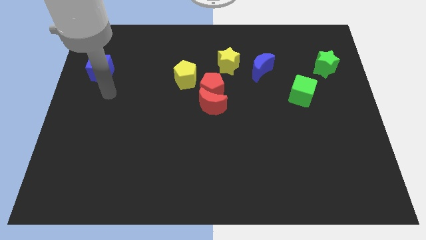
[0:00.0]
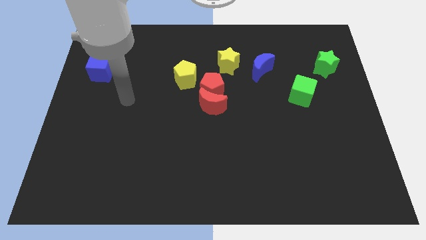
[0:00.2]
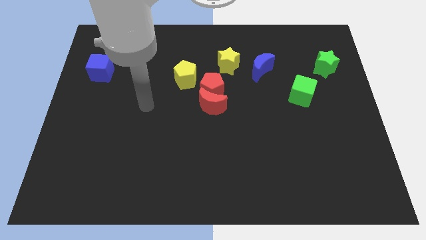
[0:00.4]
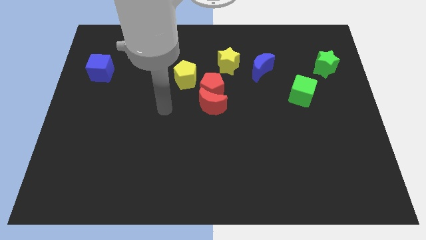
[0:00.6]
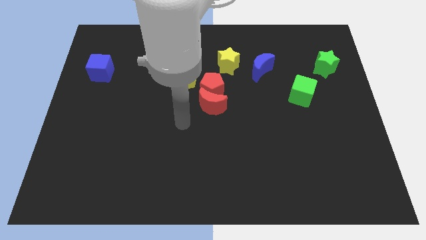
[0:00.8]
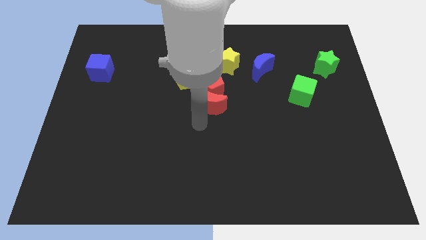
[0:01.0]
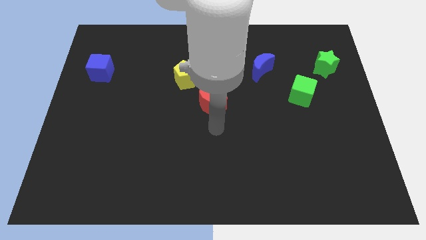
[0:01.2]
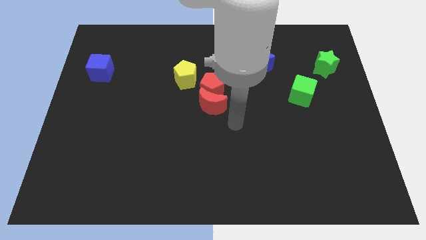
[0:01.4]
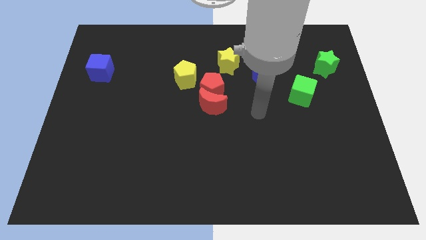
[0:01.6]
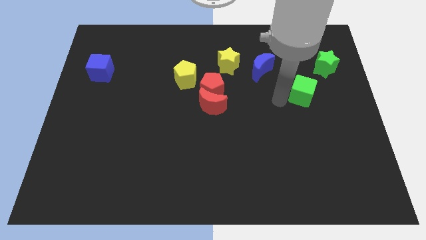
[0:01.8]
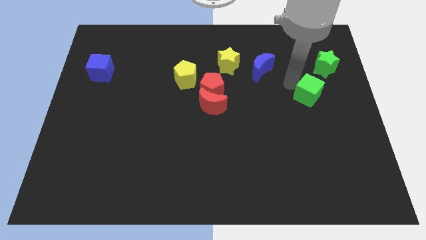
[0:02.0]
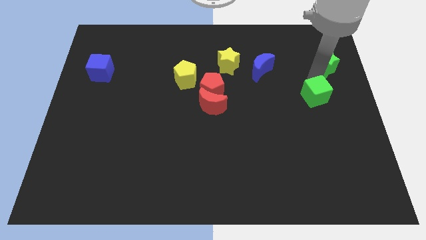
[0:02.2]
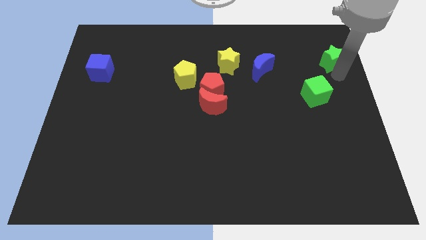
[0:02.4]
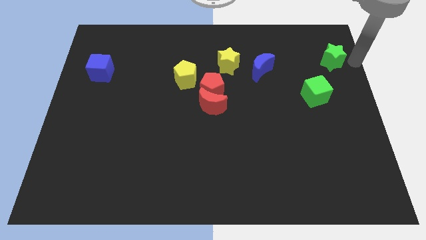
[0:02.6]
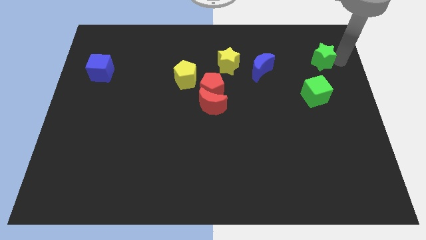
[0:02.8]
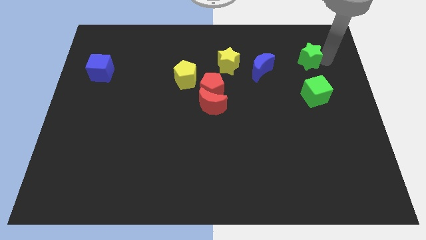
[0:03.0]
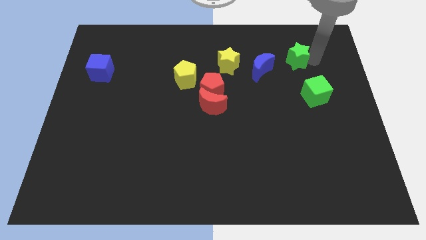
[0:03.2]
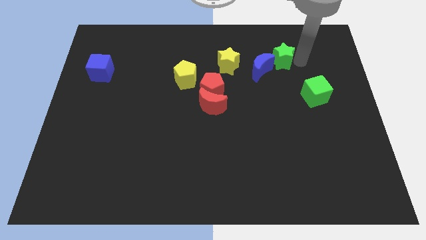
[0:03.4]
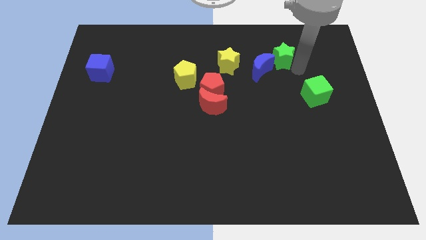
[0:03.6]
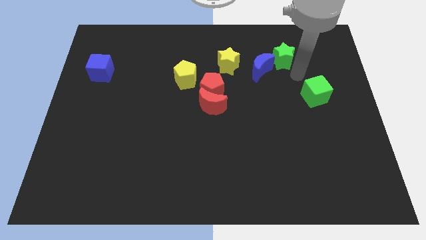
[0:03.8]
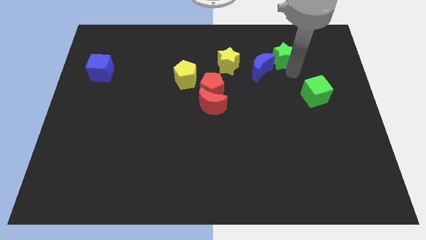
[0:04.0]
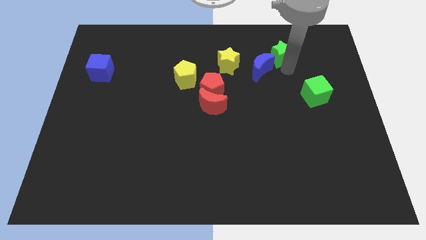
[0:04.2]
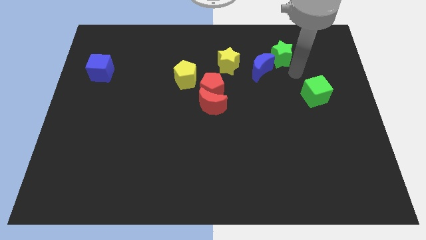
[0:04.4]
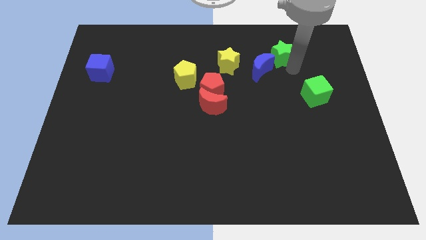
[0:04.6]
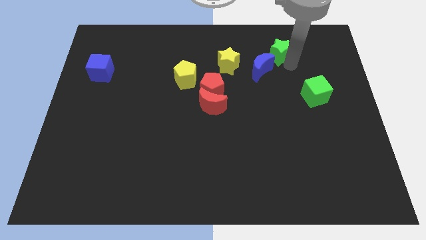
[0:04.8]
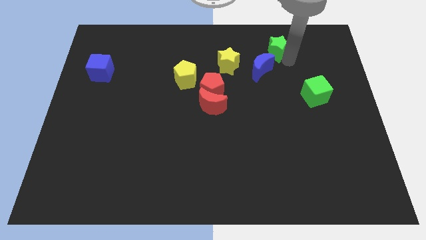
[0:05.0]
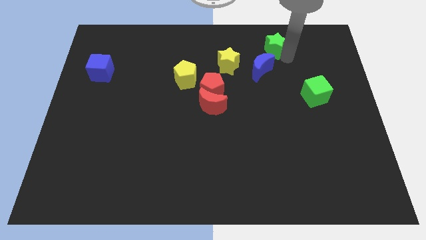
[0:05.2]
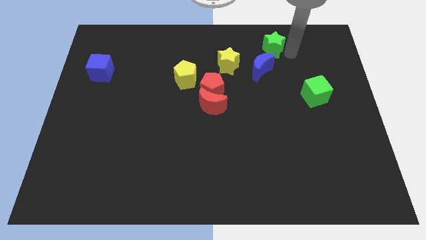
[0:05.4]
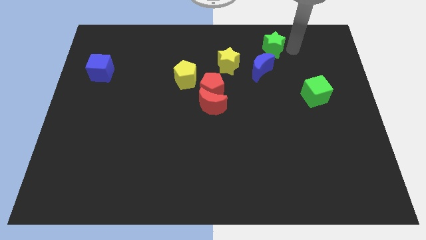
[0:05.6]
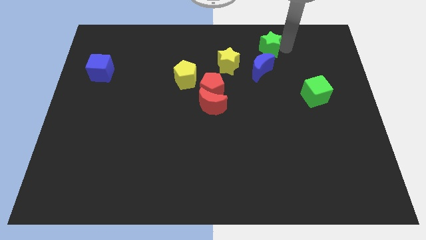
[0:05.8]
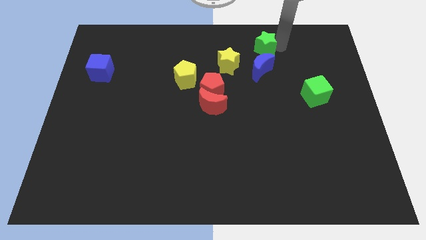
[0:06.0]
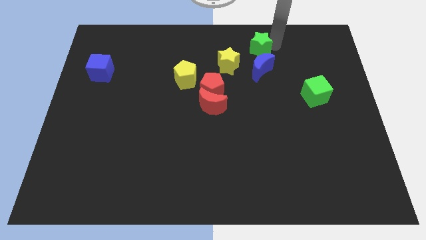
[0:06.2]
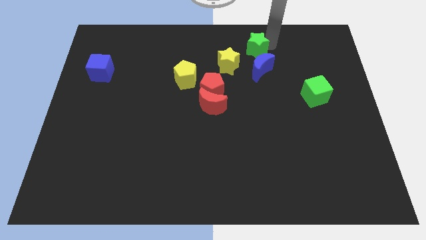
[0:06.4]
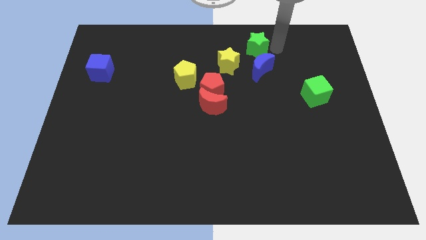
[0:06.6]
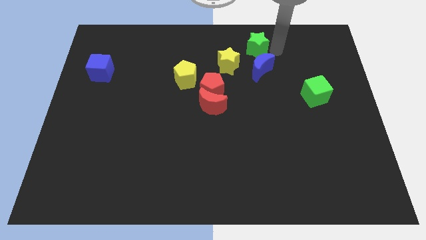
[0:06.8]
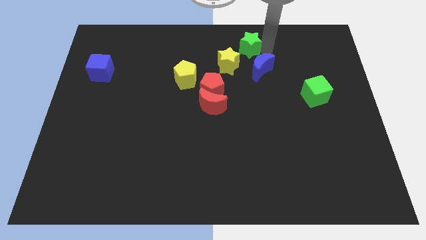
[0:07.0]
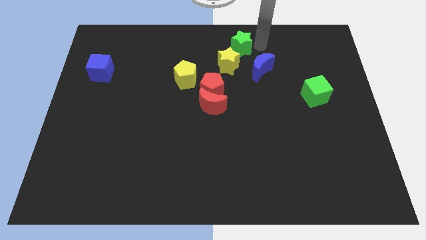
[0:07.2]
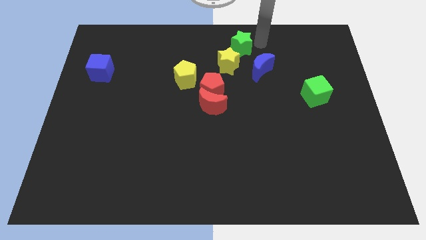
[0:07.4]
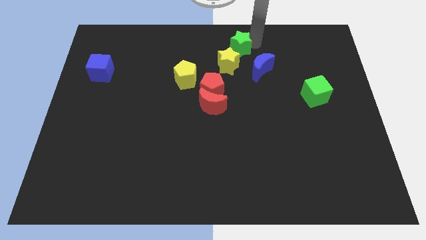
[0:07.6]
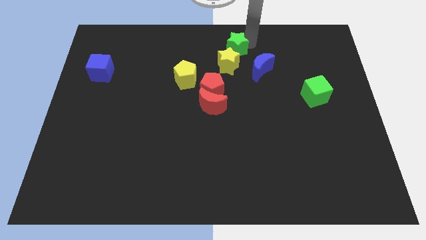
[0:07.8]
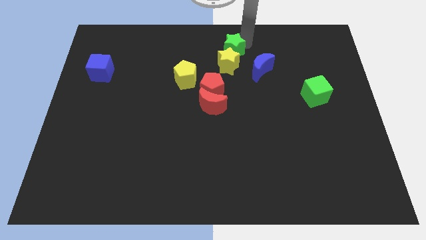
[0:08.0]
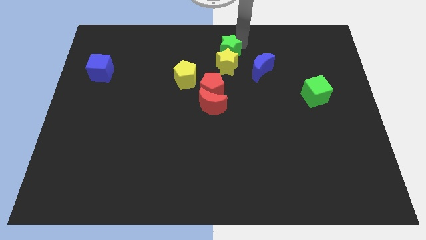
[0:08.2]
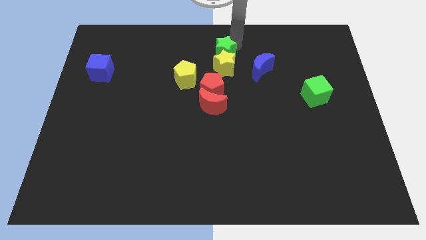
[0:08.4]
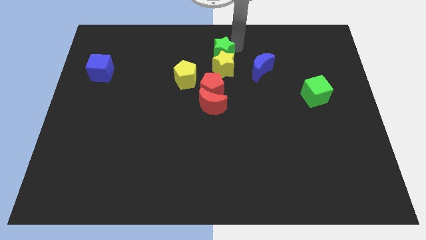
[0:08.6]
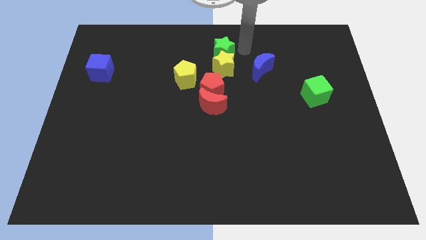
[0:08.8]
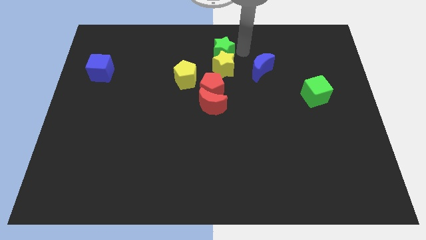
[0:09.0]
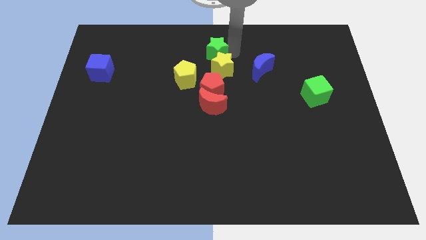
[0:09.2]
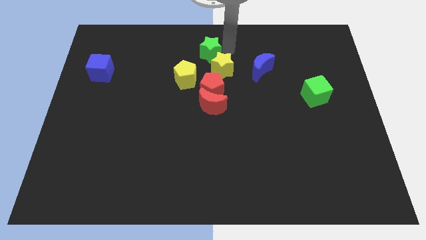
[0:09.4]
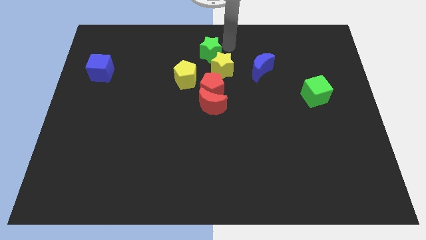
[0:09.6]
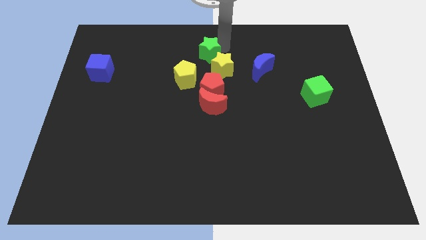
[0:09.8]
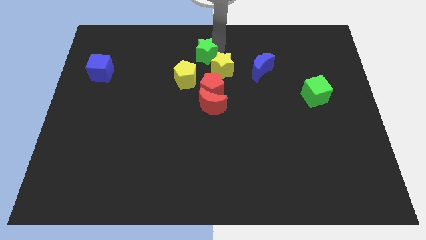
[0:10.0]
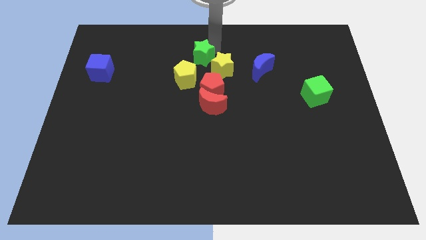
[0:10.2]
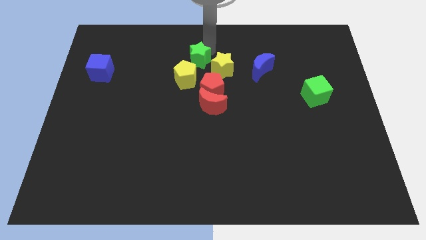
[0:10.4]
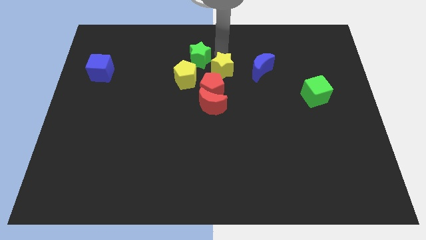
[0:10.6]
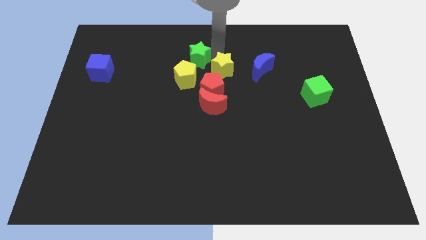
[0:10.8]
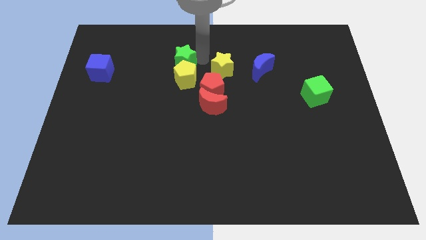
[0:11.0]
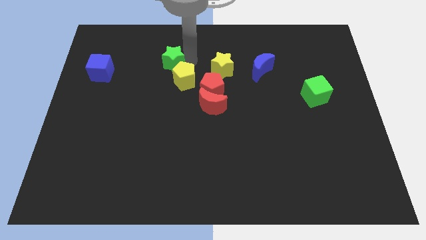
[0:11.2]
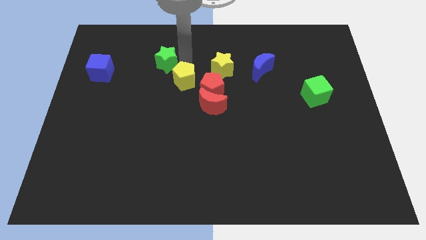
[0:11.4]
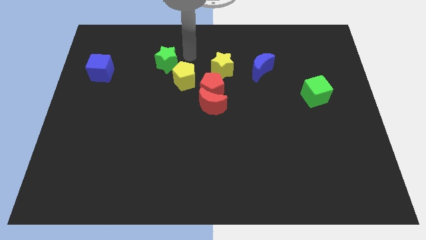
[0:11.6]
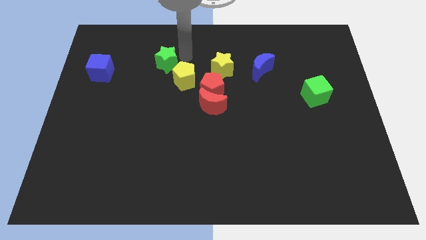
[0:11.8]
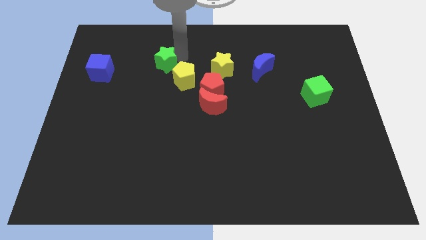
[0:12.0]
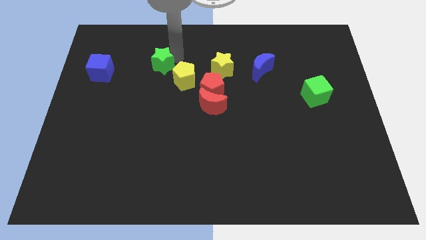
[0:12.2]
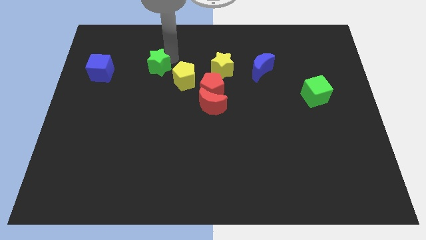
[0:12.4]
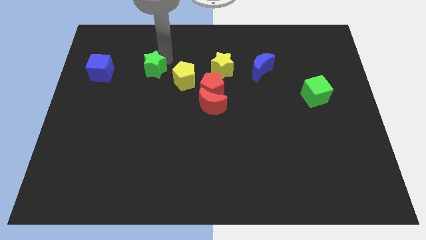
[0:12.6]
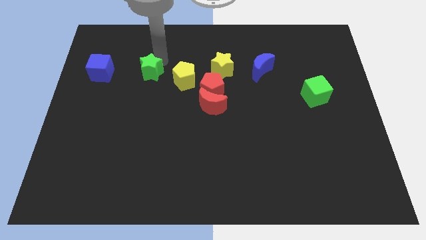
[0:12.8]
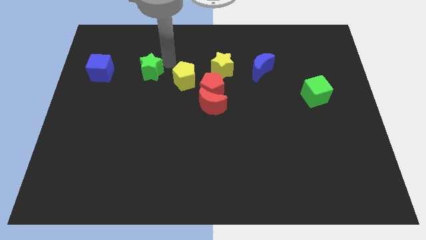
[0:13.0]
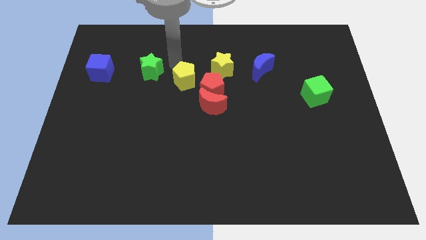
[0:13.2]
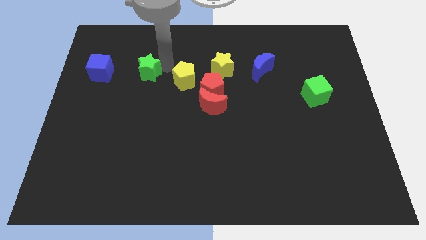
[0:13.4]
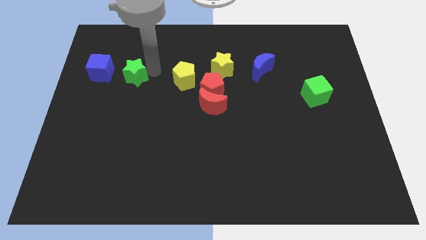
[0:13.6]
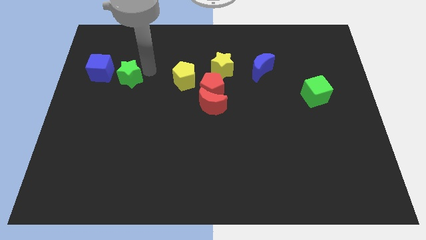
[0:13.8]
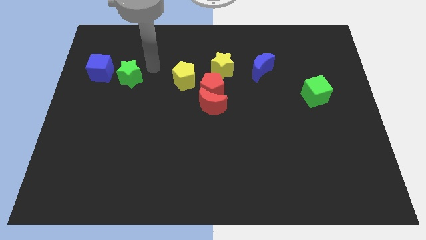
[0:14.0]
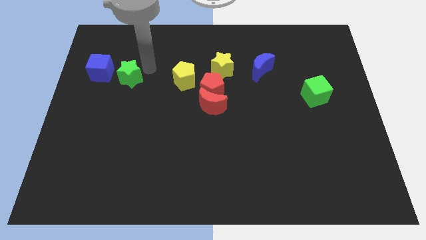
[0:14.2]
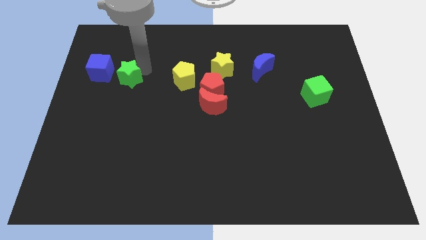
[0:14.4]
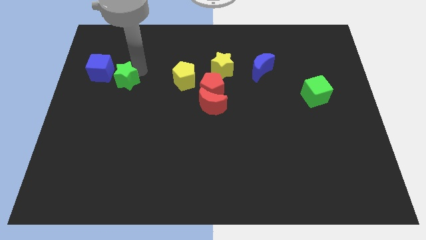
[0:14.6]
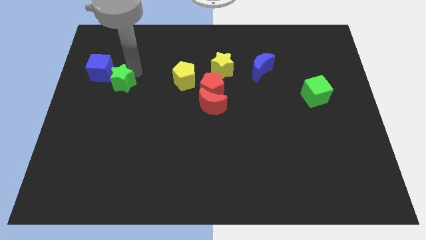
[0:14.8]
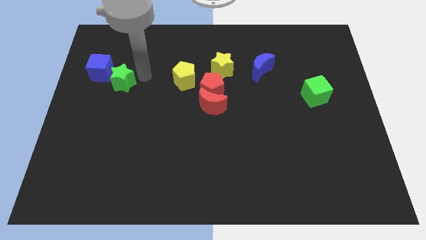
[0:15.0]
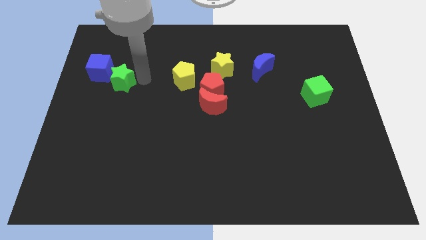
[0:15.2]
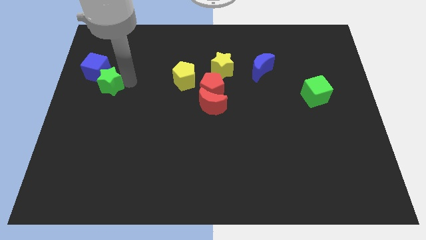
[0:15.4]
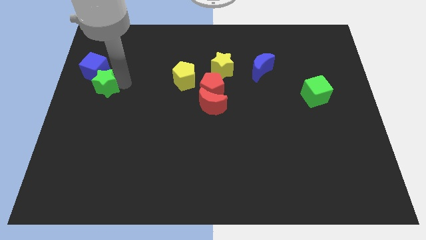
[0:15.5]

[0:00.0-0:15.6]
slide the green star to the left side of the board

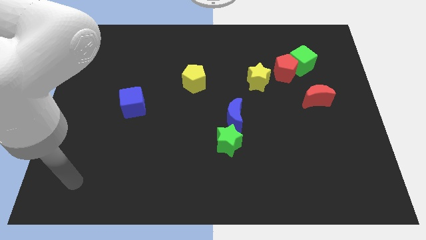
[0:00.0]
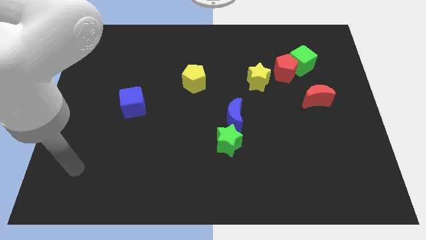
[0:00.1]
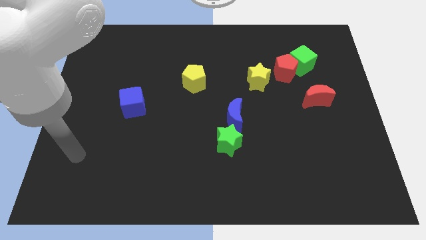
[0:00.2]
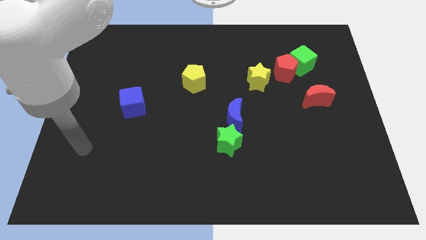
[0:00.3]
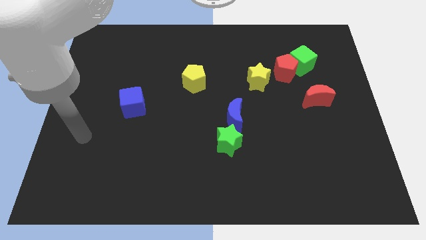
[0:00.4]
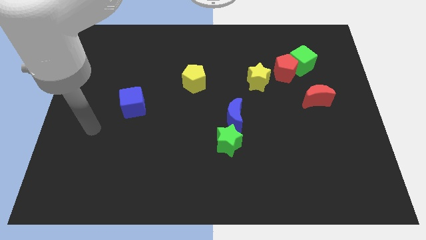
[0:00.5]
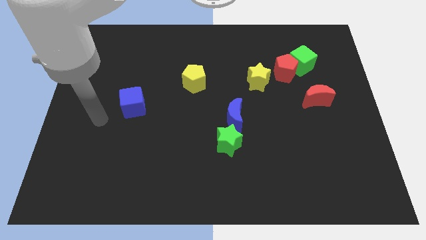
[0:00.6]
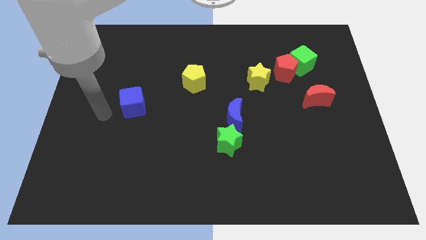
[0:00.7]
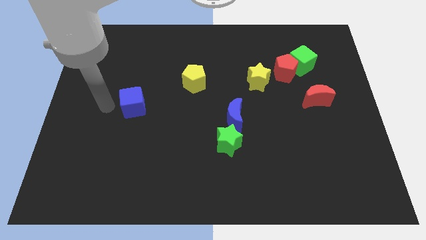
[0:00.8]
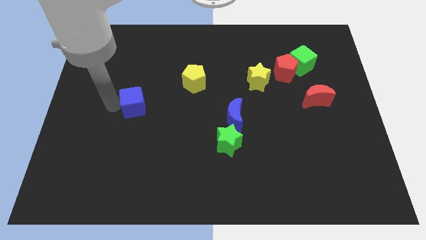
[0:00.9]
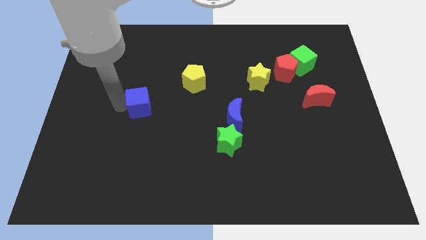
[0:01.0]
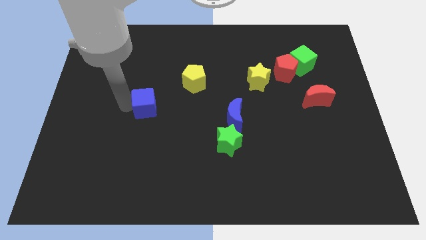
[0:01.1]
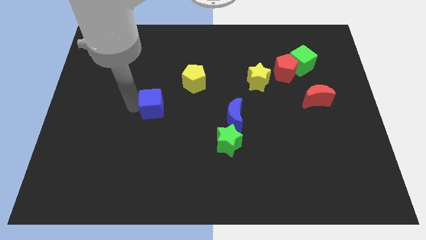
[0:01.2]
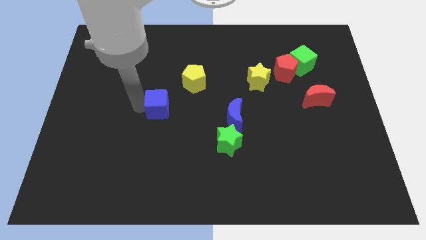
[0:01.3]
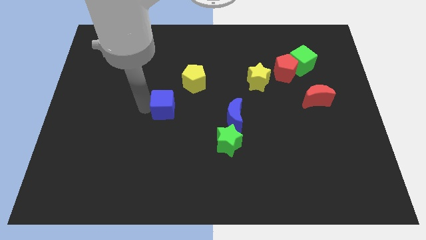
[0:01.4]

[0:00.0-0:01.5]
put the blue cube to the center
